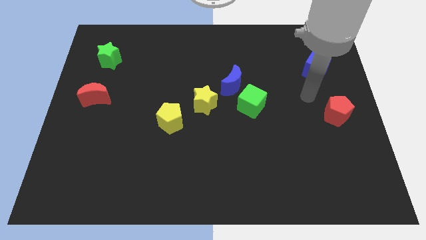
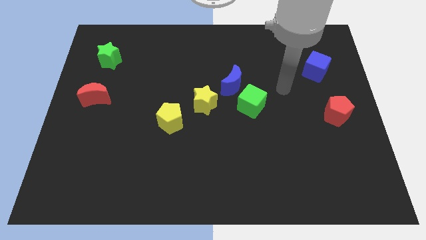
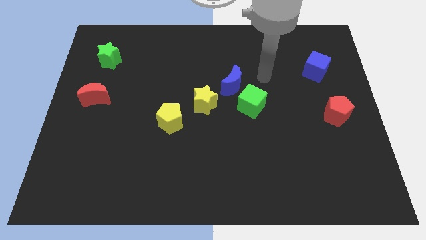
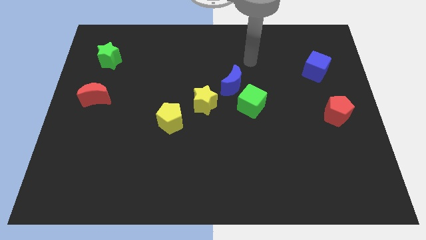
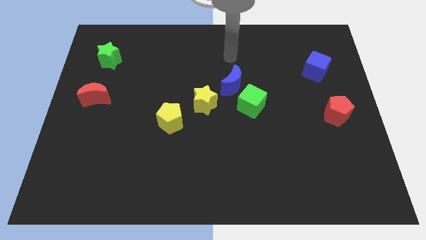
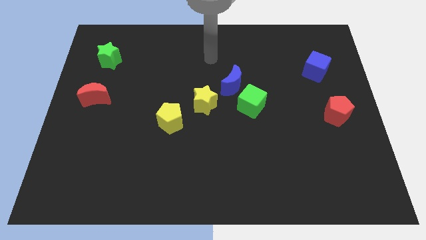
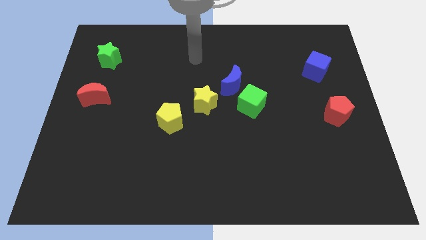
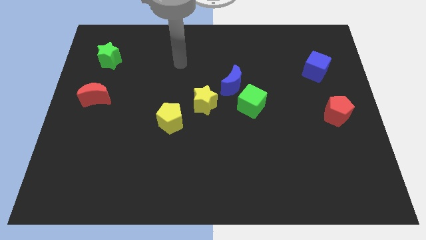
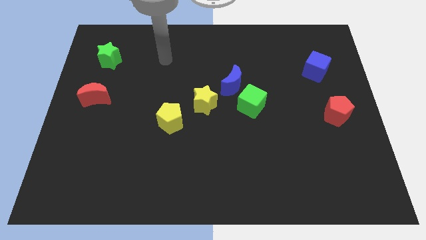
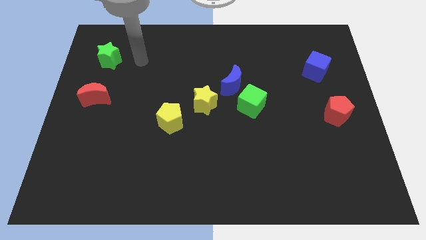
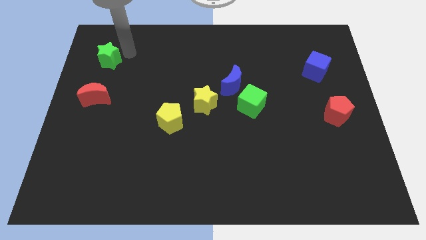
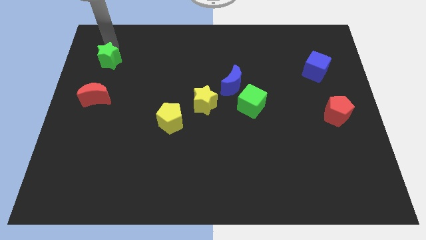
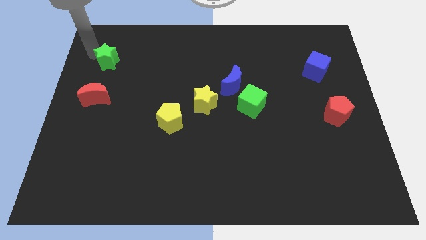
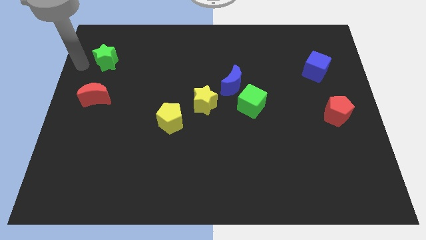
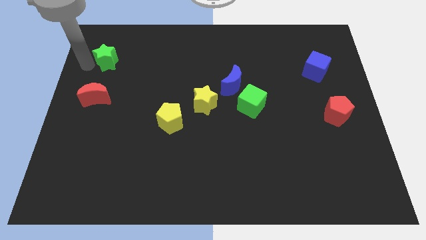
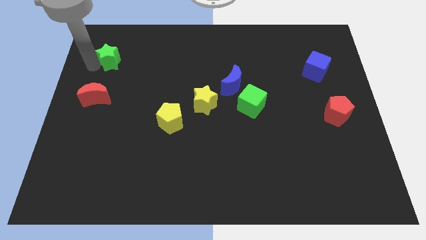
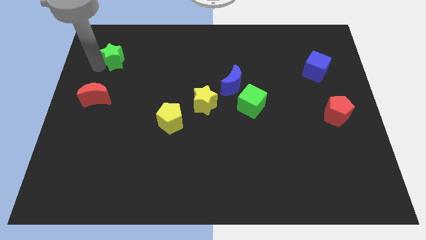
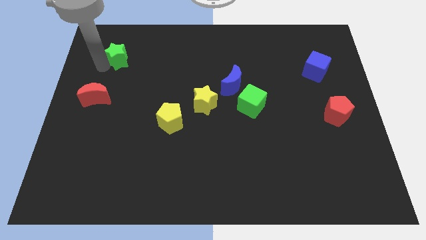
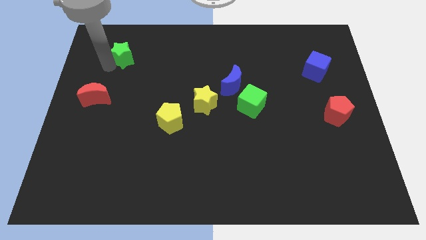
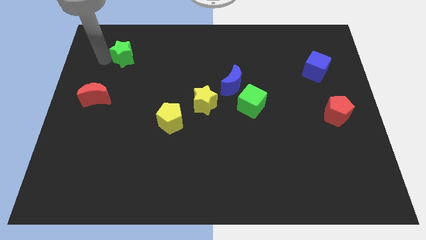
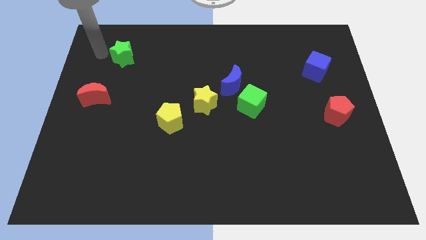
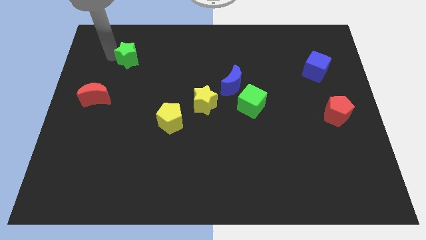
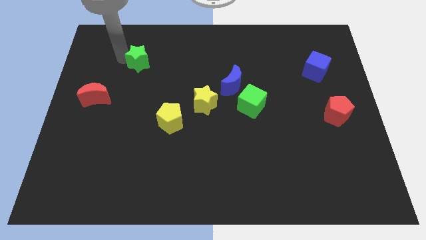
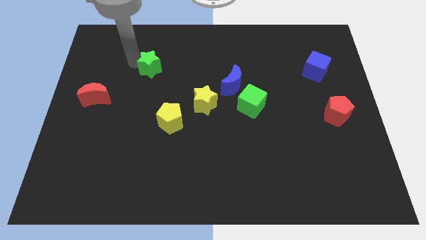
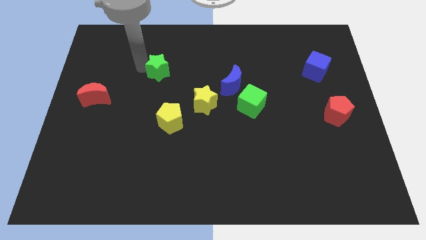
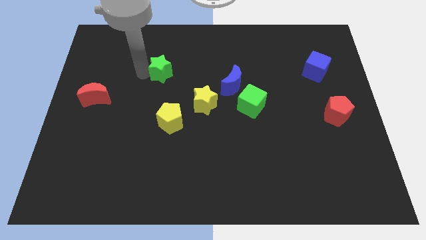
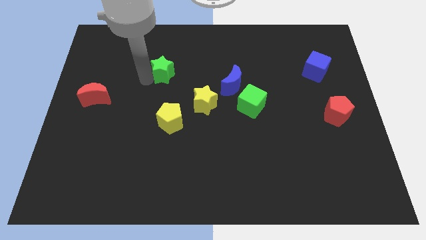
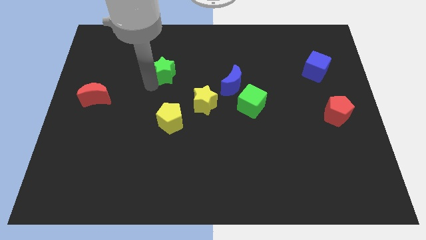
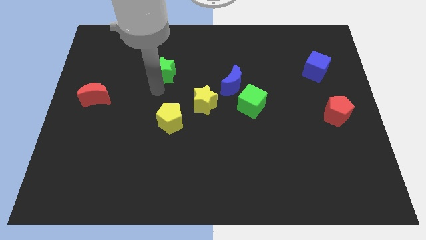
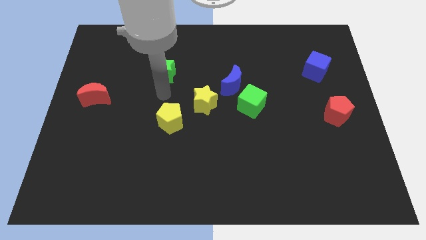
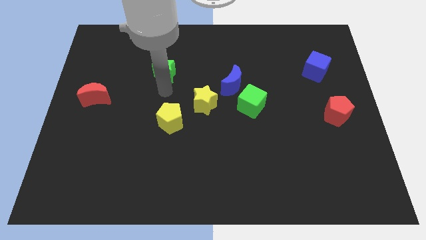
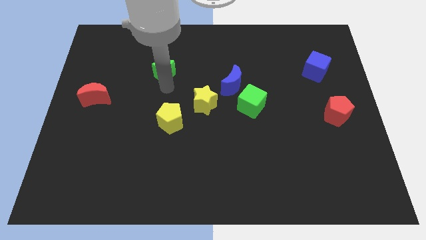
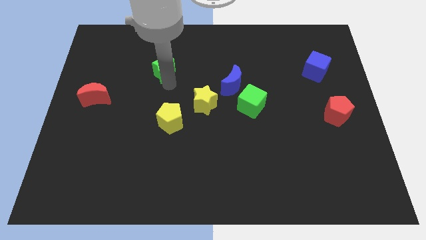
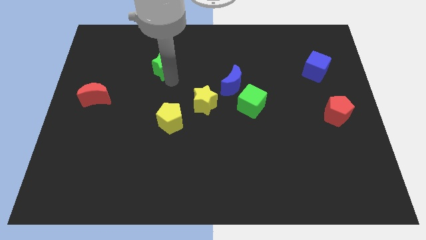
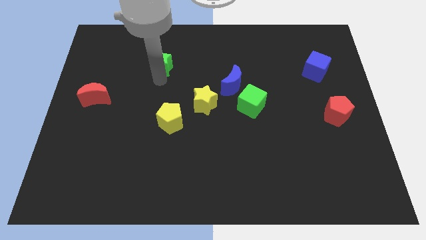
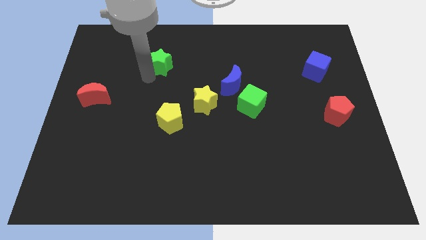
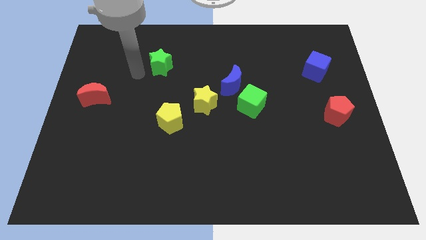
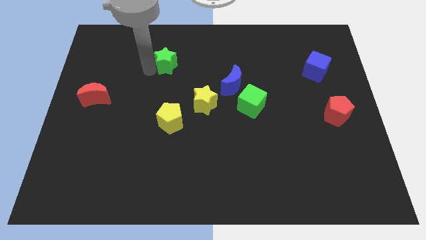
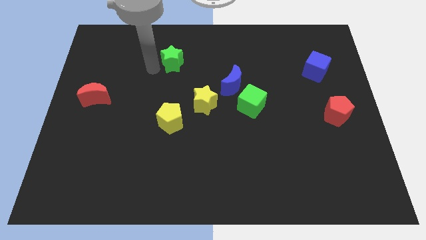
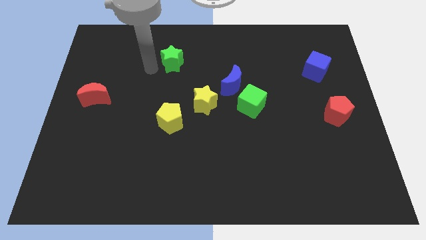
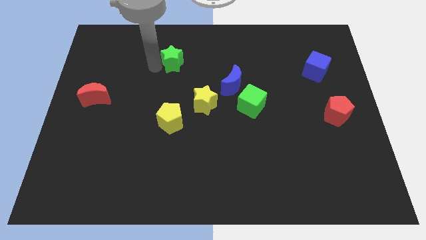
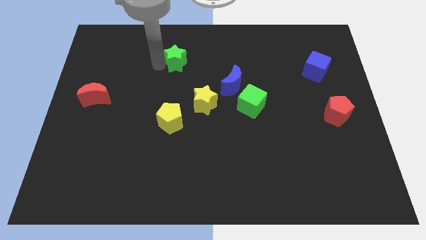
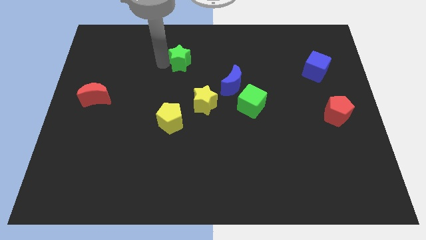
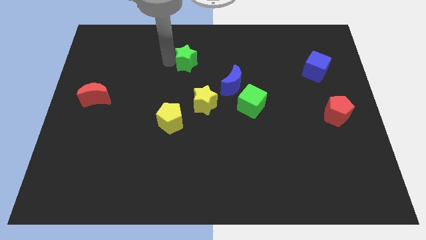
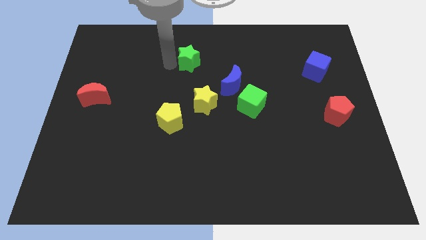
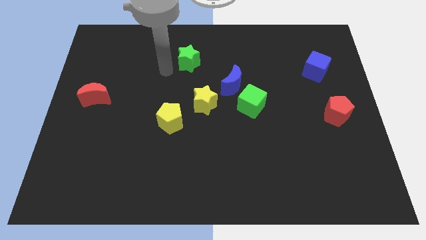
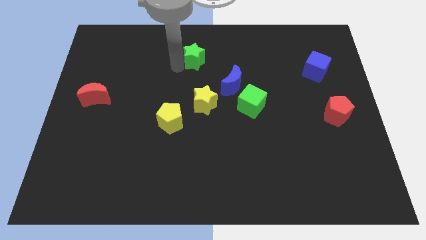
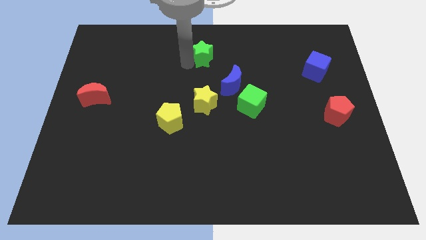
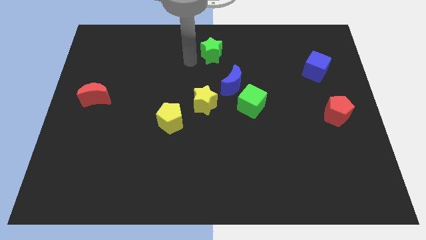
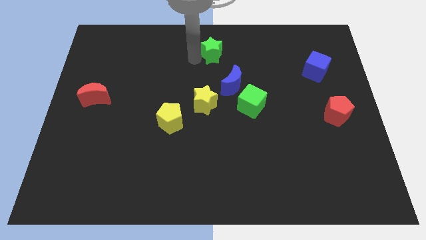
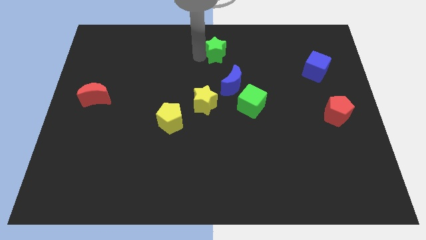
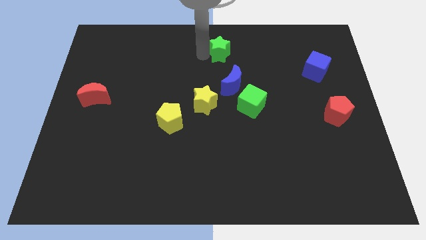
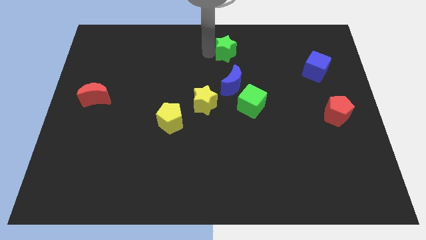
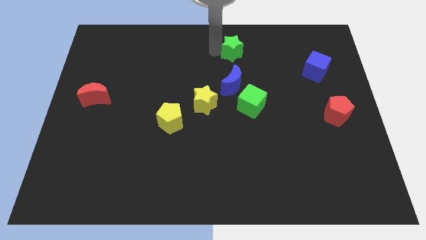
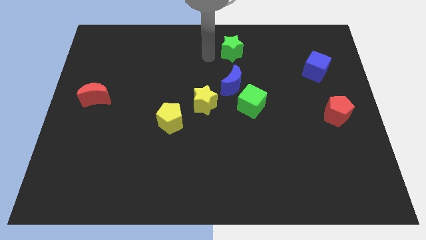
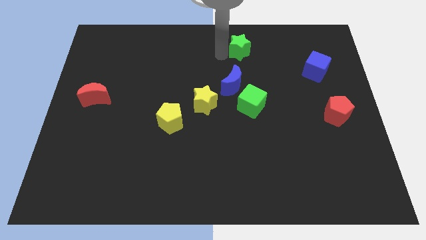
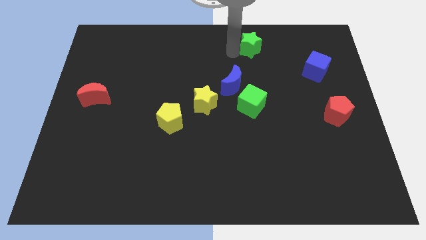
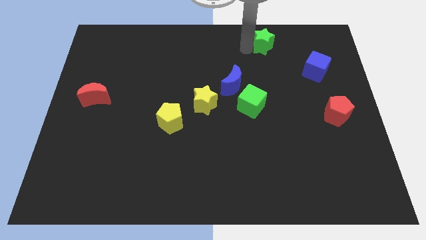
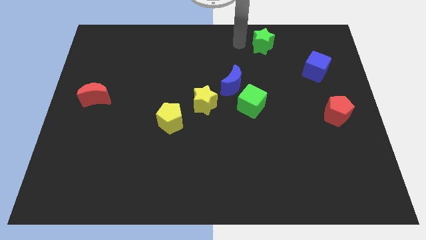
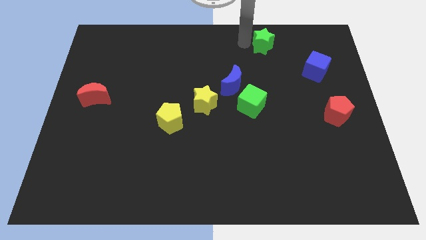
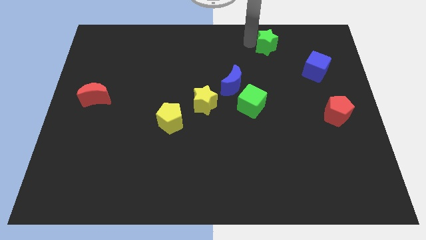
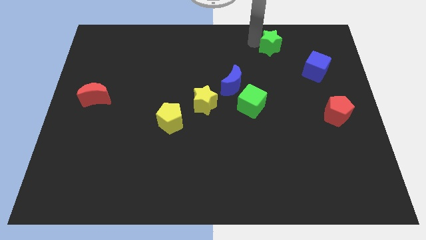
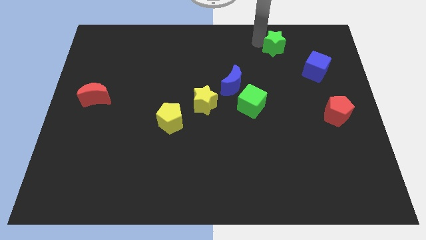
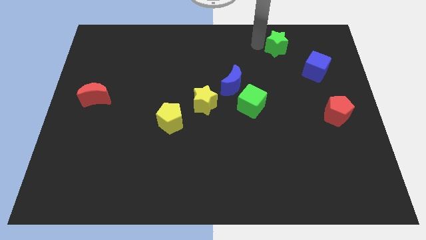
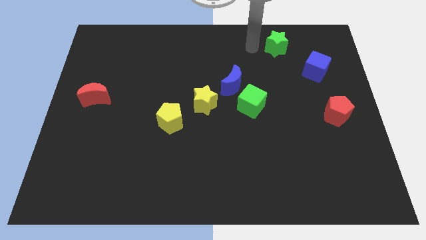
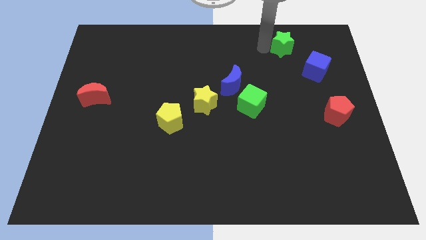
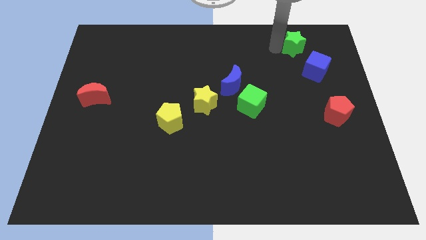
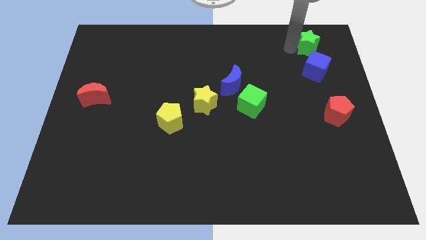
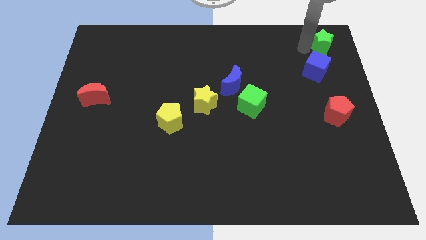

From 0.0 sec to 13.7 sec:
slide the green star to the top right corner
